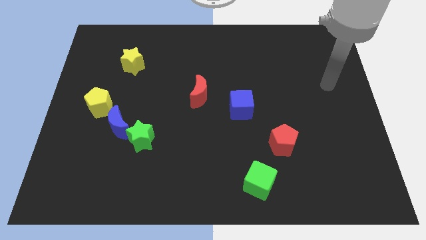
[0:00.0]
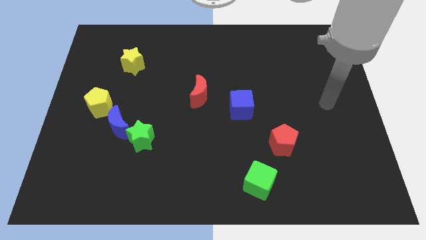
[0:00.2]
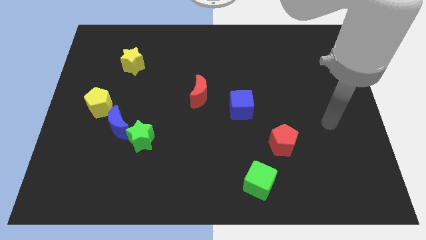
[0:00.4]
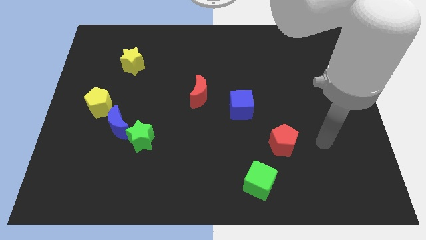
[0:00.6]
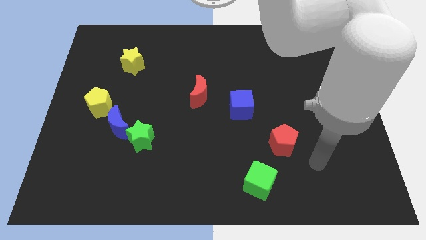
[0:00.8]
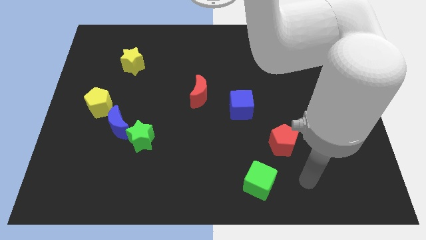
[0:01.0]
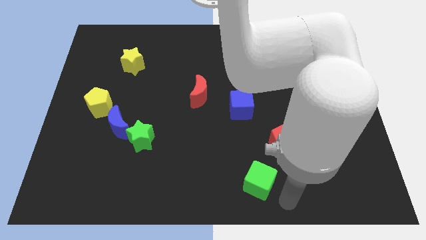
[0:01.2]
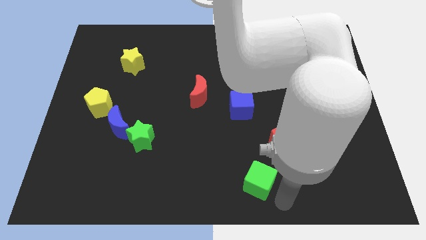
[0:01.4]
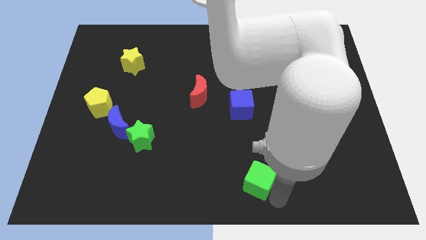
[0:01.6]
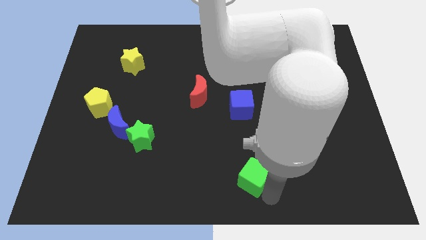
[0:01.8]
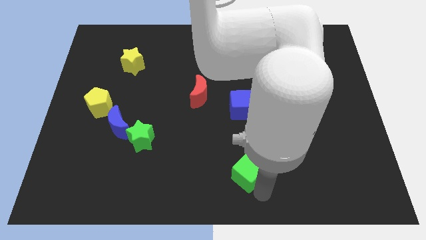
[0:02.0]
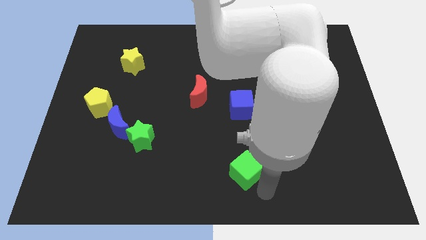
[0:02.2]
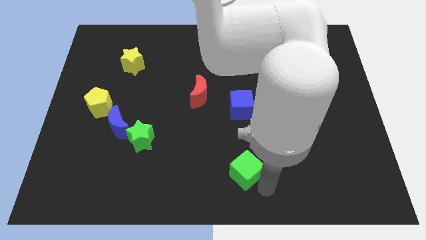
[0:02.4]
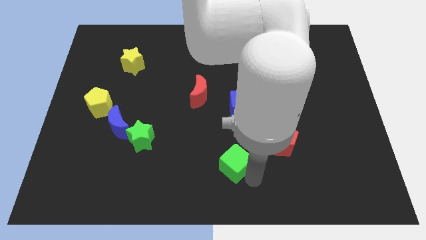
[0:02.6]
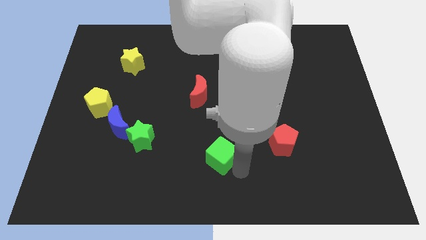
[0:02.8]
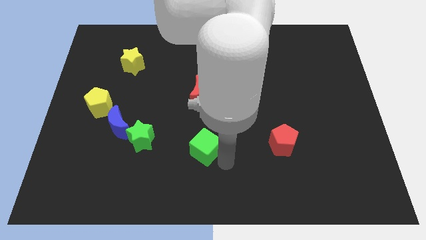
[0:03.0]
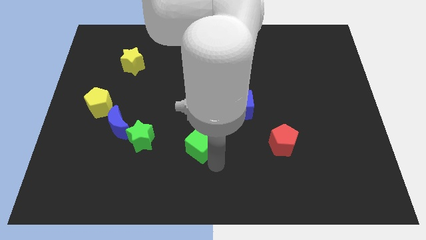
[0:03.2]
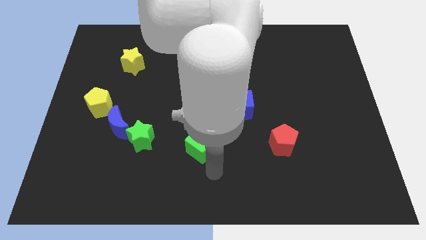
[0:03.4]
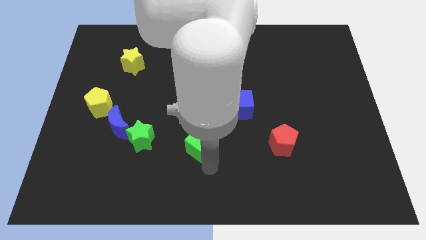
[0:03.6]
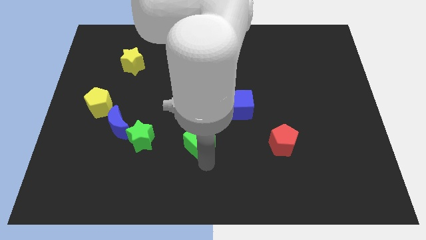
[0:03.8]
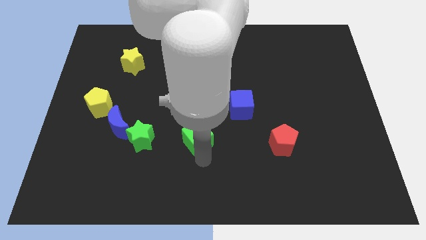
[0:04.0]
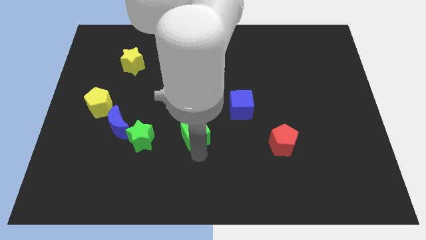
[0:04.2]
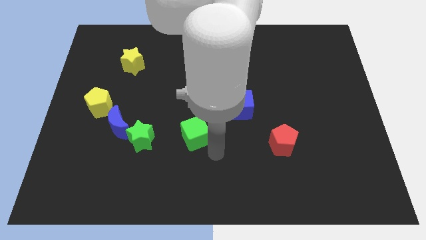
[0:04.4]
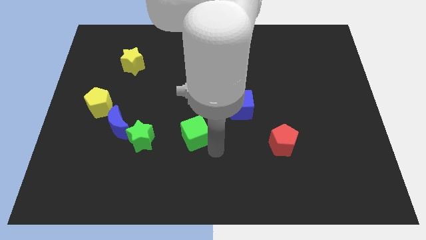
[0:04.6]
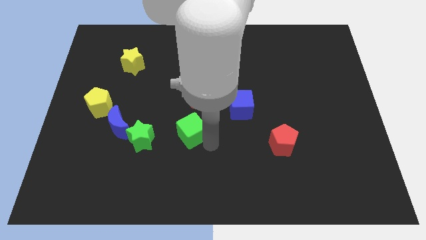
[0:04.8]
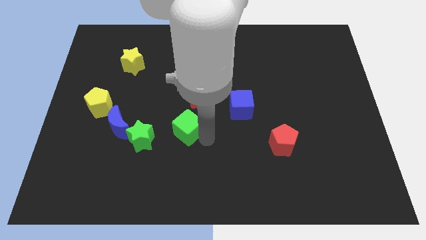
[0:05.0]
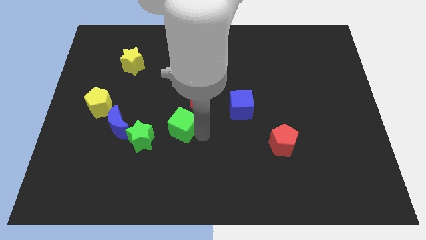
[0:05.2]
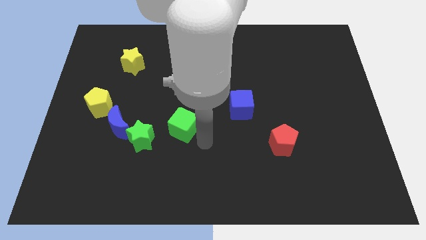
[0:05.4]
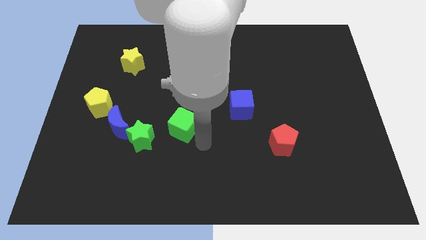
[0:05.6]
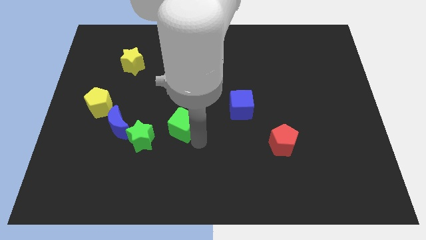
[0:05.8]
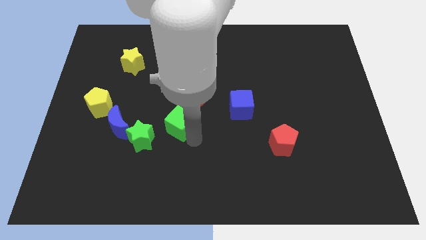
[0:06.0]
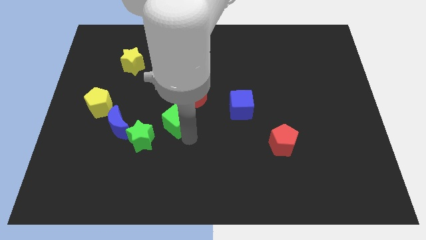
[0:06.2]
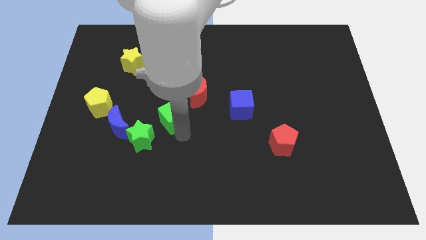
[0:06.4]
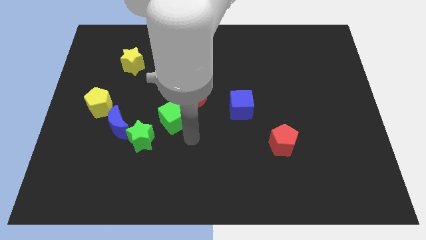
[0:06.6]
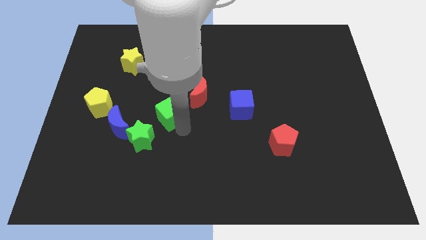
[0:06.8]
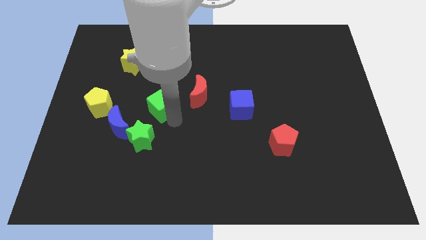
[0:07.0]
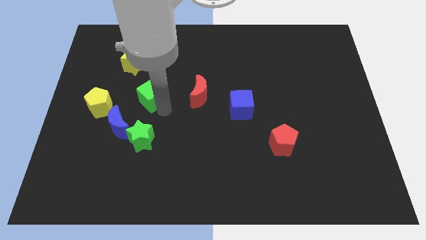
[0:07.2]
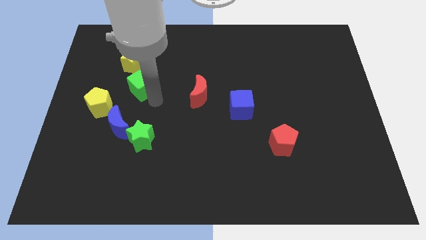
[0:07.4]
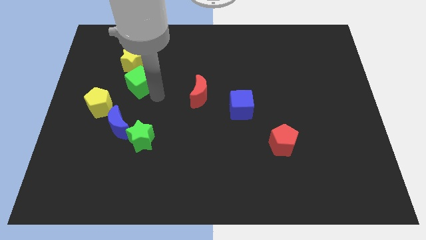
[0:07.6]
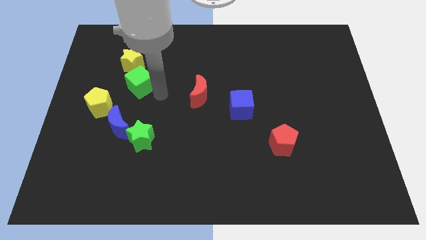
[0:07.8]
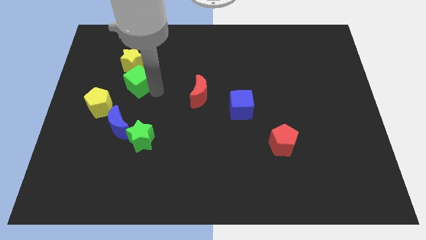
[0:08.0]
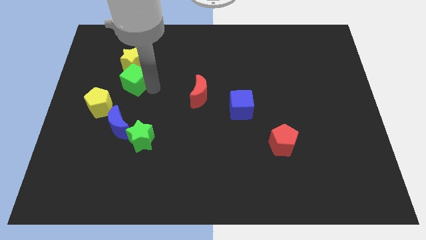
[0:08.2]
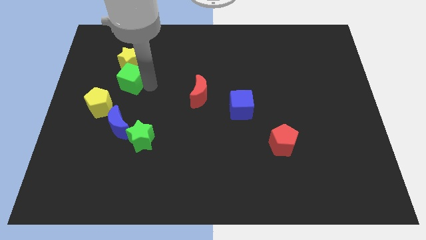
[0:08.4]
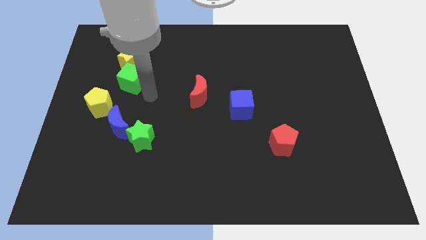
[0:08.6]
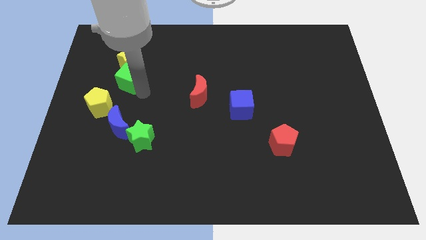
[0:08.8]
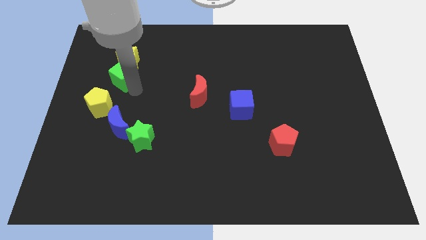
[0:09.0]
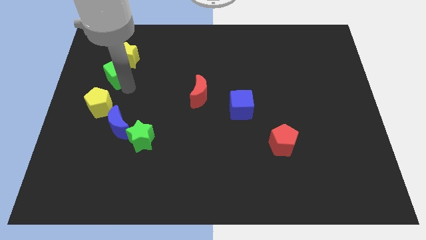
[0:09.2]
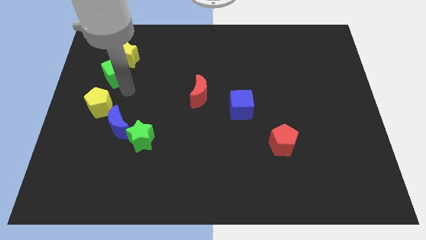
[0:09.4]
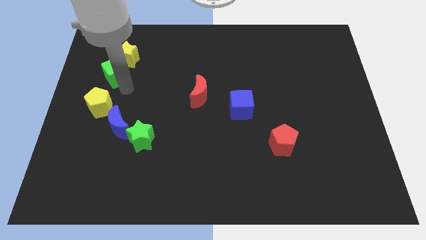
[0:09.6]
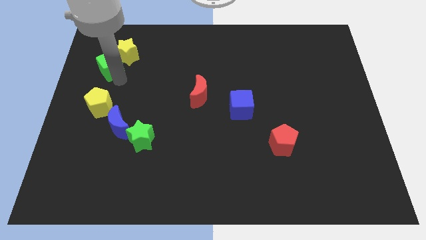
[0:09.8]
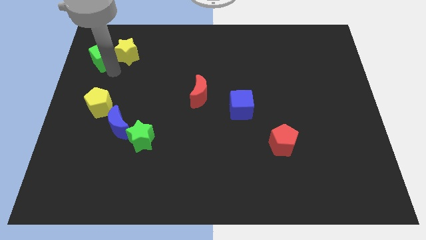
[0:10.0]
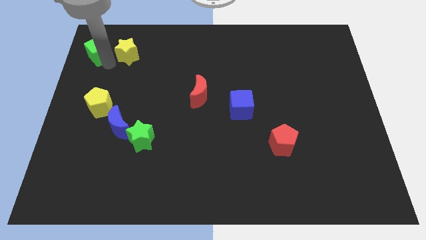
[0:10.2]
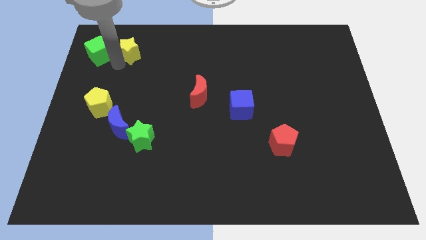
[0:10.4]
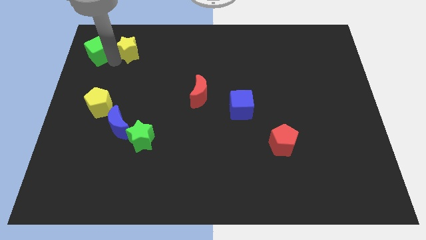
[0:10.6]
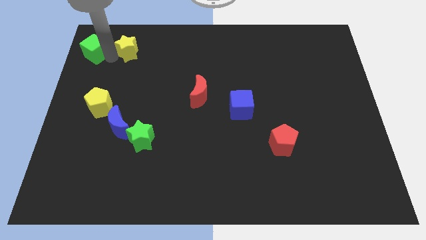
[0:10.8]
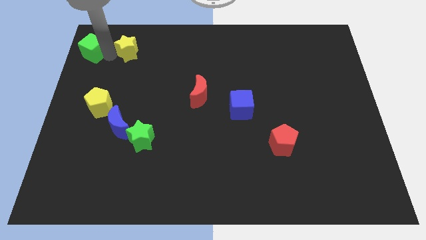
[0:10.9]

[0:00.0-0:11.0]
put the green cube to the top left
